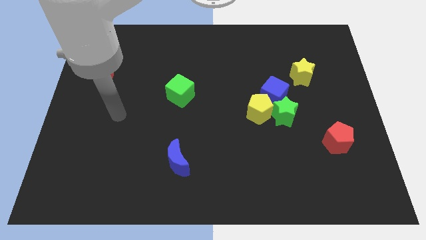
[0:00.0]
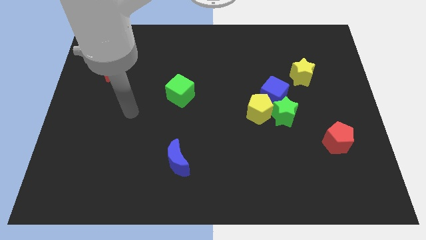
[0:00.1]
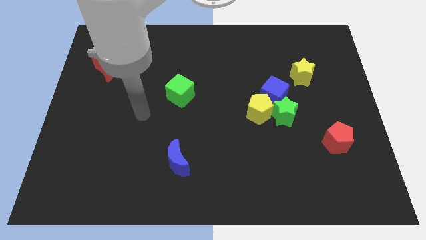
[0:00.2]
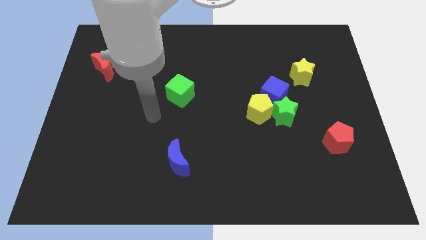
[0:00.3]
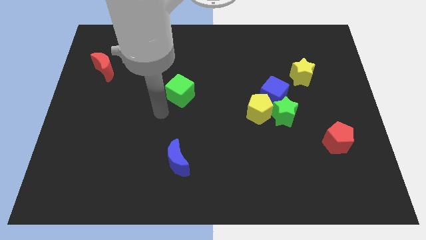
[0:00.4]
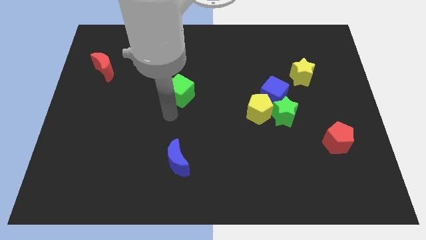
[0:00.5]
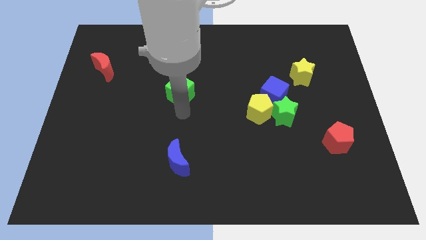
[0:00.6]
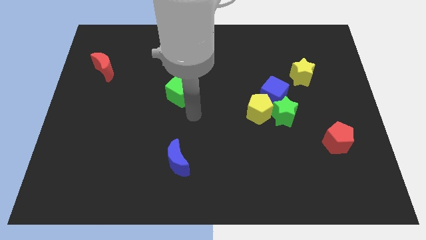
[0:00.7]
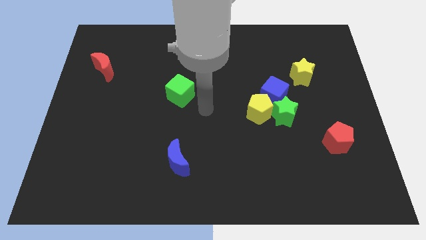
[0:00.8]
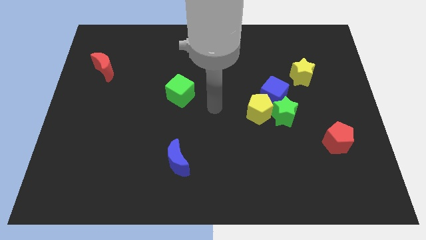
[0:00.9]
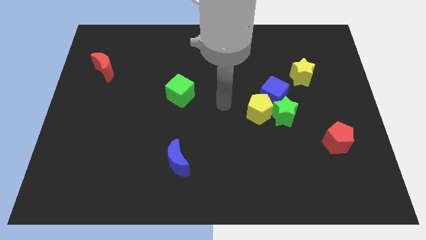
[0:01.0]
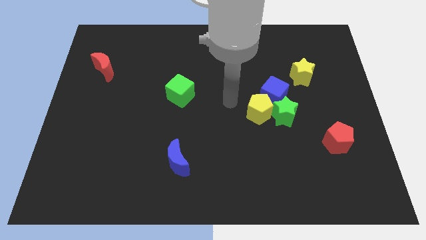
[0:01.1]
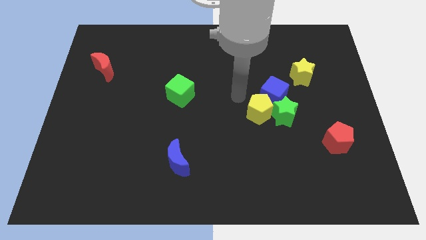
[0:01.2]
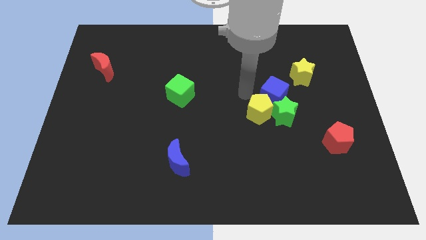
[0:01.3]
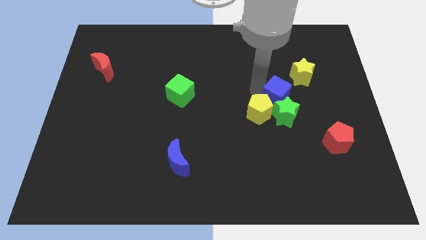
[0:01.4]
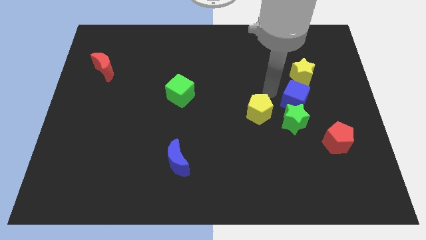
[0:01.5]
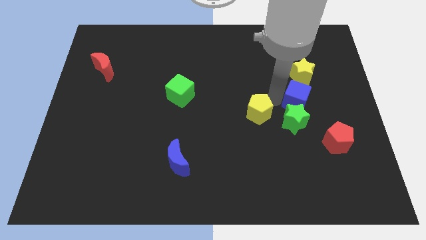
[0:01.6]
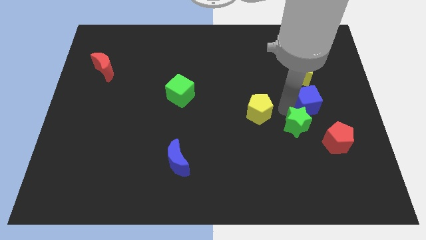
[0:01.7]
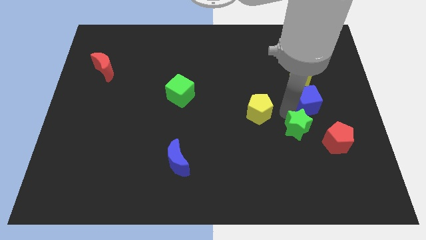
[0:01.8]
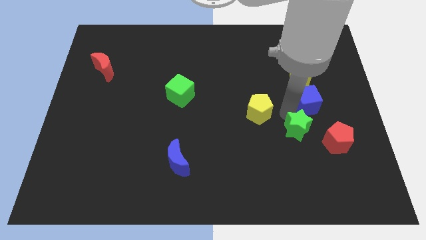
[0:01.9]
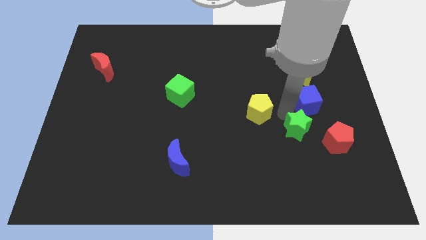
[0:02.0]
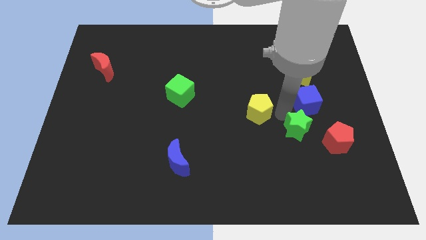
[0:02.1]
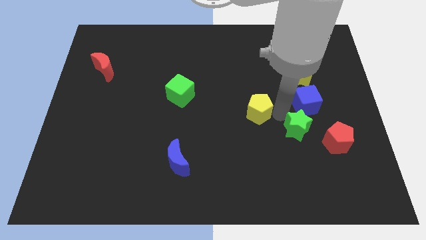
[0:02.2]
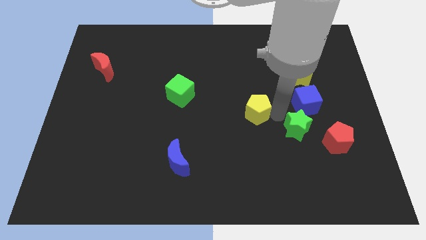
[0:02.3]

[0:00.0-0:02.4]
pull the yellow pentagon apart from the green star and blue cube

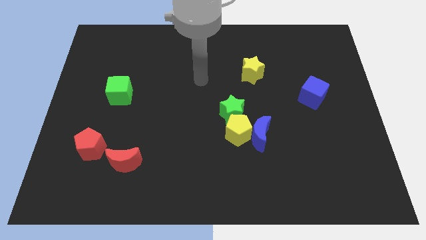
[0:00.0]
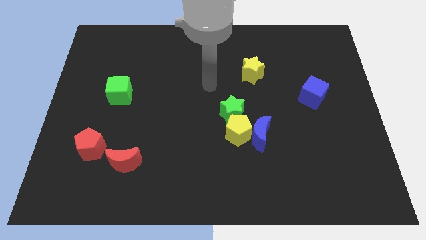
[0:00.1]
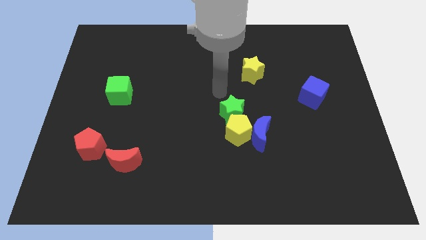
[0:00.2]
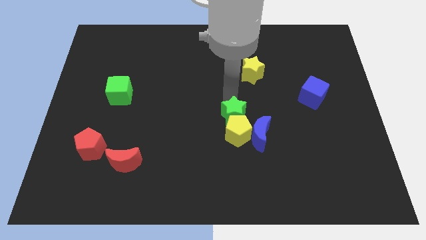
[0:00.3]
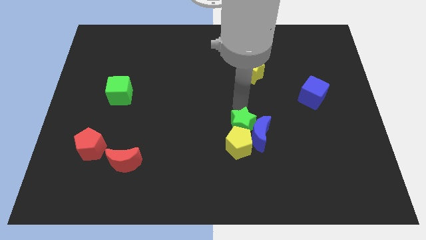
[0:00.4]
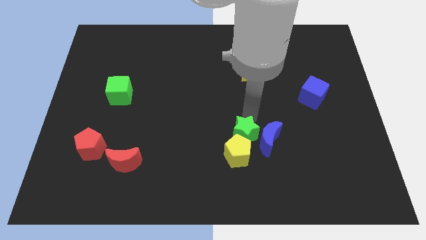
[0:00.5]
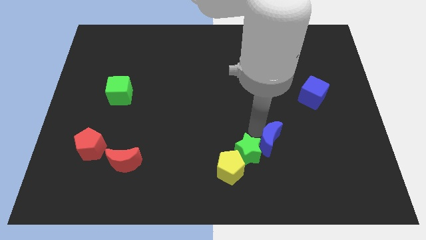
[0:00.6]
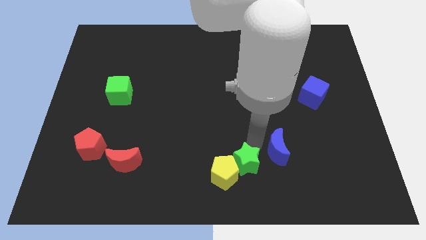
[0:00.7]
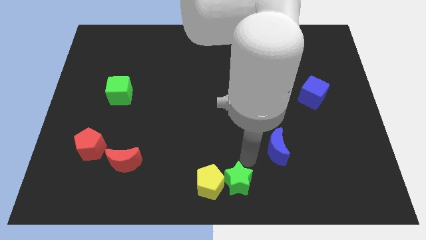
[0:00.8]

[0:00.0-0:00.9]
pull the yellow pentagon apart from the blue moon and green star

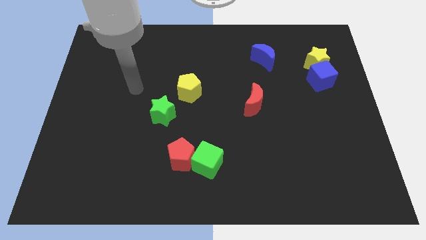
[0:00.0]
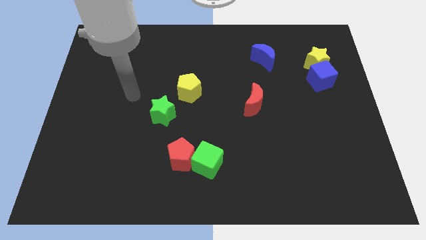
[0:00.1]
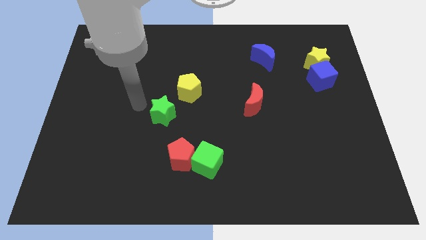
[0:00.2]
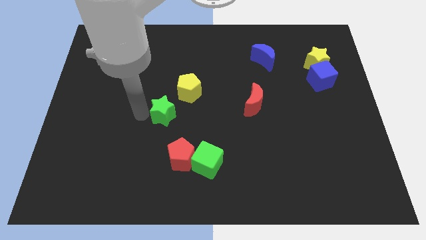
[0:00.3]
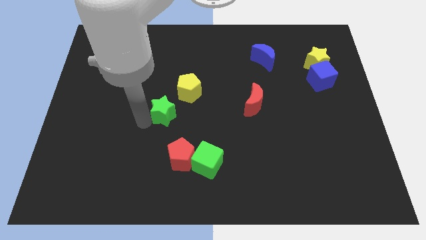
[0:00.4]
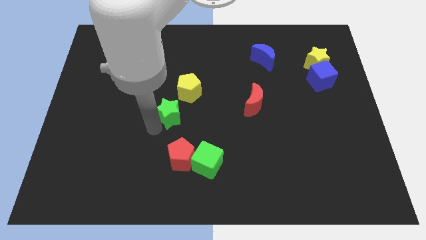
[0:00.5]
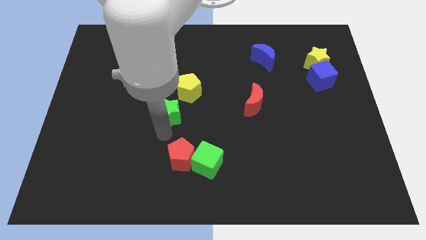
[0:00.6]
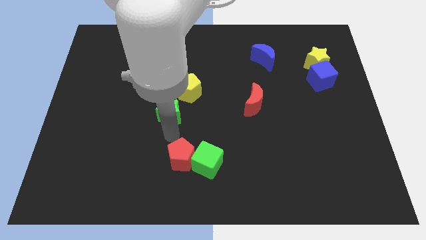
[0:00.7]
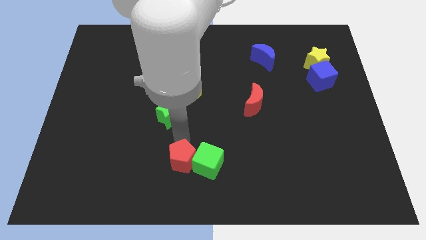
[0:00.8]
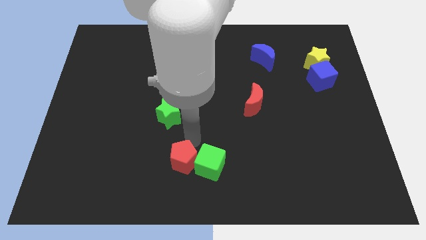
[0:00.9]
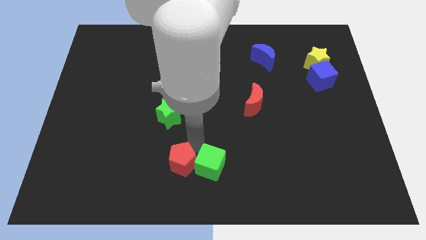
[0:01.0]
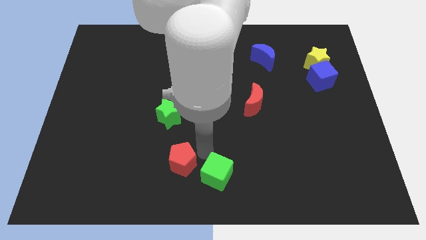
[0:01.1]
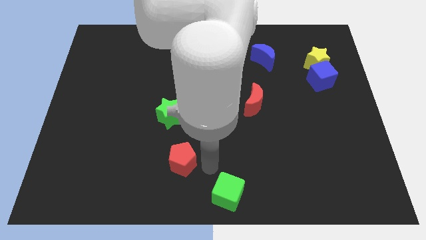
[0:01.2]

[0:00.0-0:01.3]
separate the red pentagon from the green cube

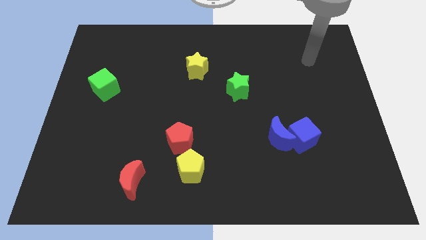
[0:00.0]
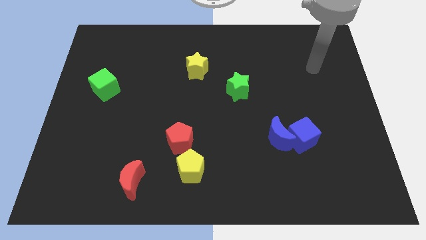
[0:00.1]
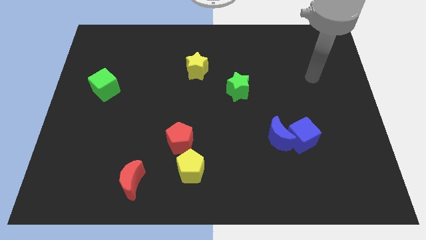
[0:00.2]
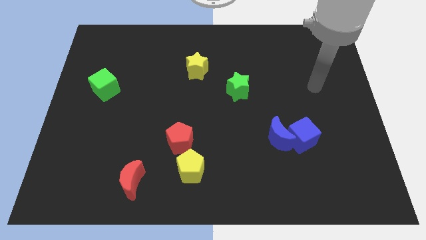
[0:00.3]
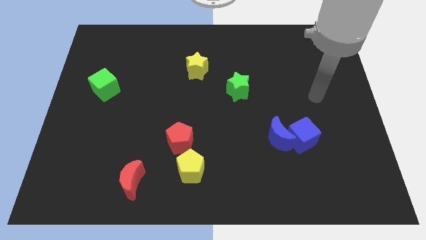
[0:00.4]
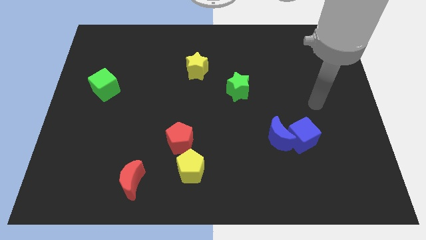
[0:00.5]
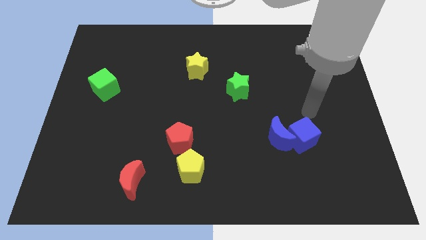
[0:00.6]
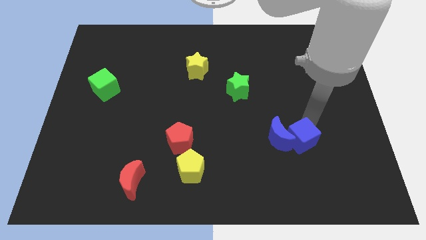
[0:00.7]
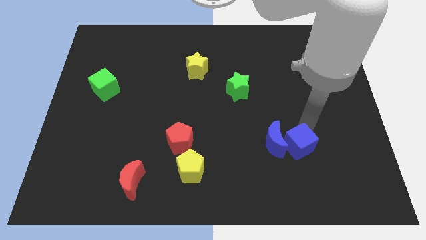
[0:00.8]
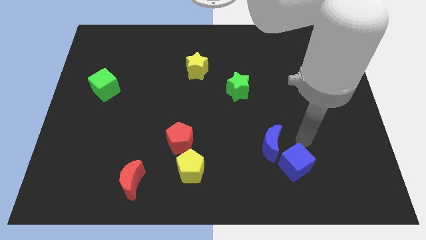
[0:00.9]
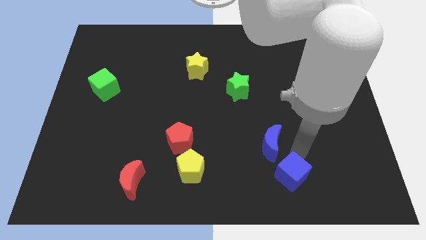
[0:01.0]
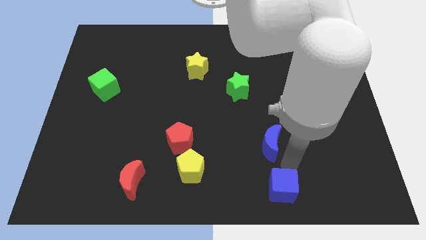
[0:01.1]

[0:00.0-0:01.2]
pull the blue moon apart from the blue cube

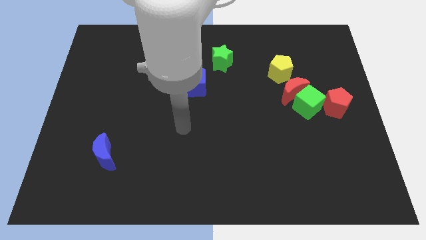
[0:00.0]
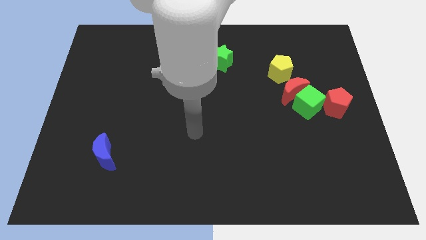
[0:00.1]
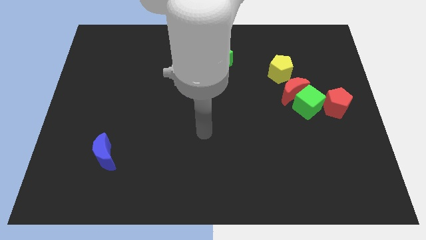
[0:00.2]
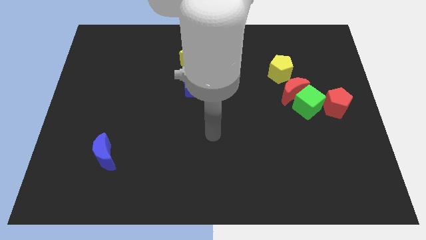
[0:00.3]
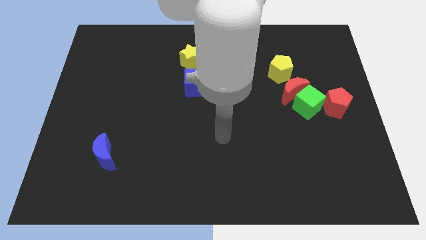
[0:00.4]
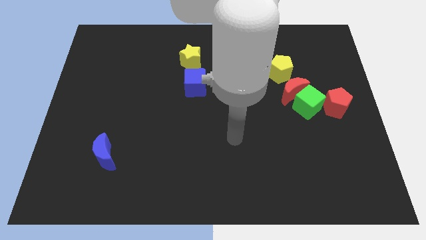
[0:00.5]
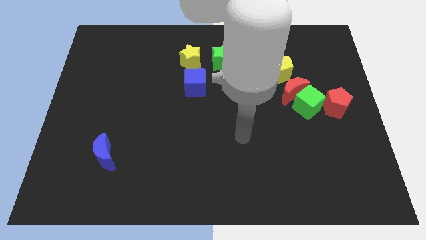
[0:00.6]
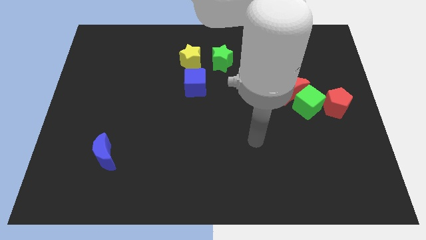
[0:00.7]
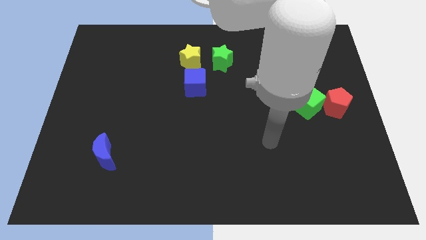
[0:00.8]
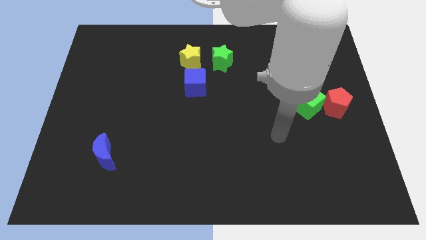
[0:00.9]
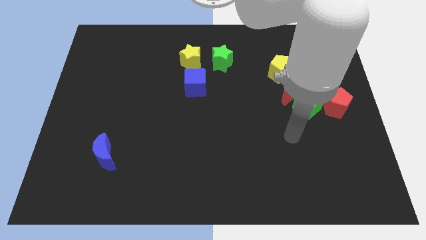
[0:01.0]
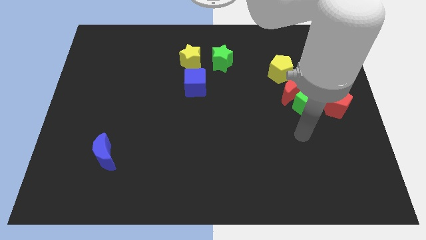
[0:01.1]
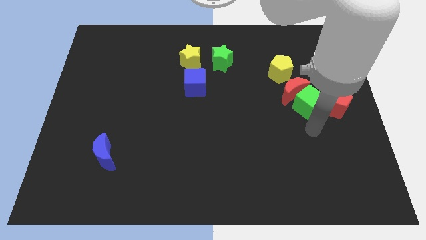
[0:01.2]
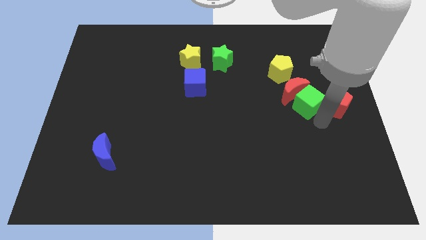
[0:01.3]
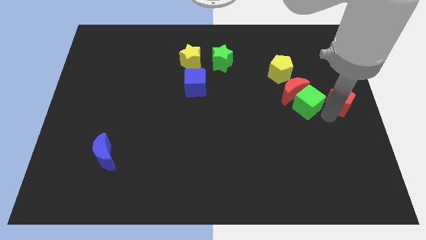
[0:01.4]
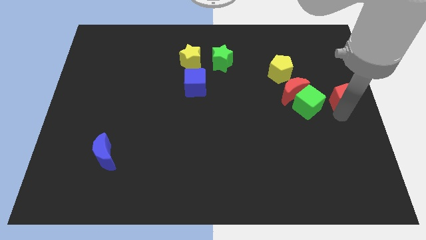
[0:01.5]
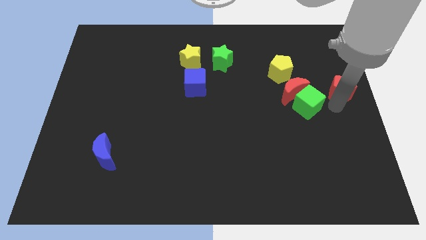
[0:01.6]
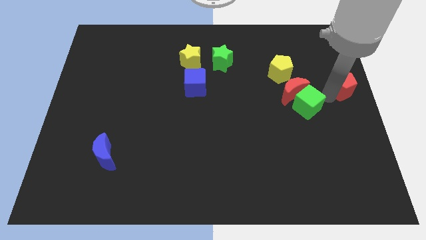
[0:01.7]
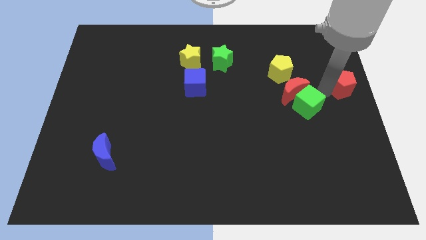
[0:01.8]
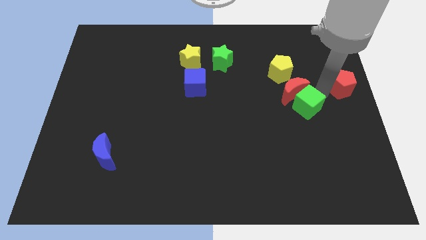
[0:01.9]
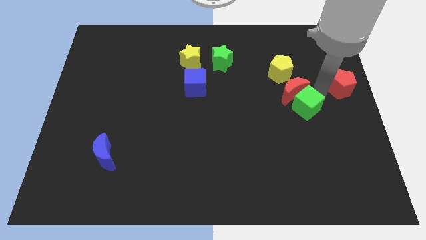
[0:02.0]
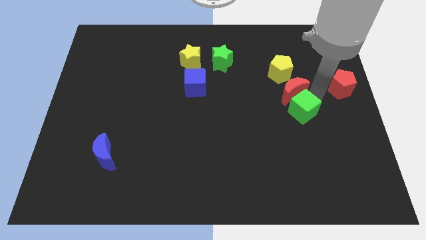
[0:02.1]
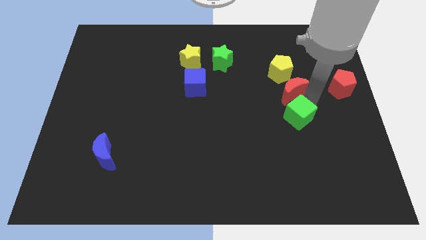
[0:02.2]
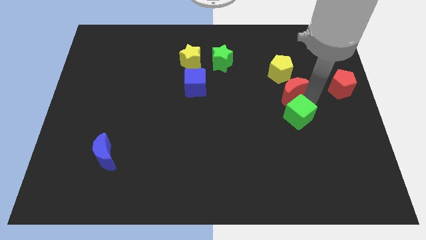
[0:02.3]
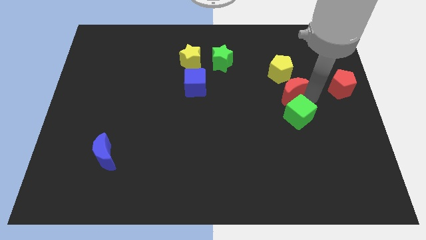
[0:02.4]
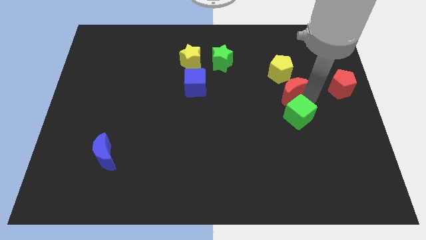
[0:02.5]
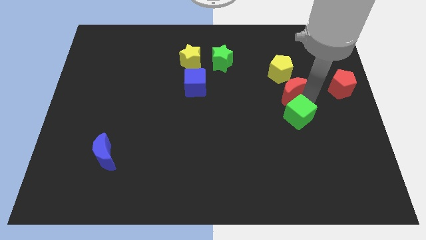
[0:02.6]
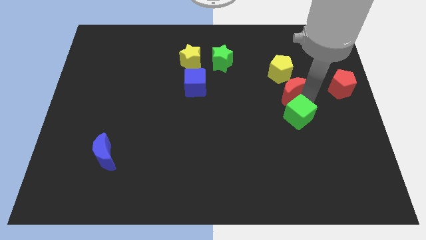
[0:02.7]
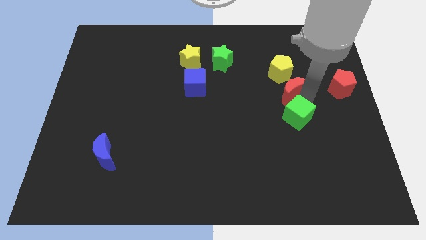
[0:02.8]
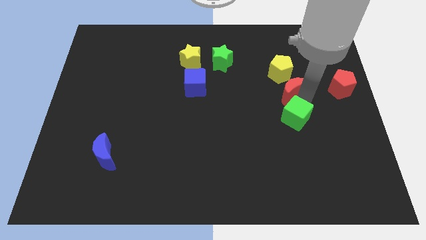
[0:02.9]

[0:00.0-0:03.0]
pull the green cube apart from the red moon and red pentagon

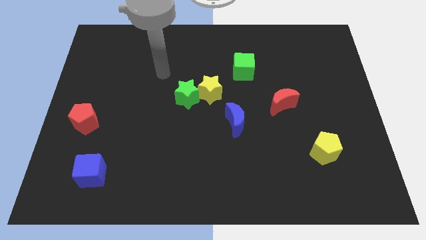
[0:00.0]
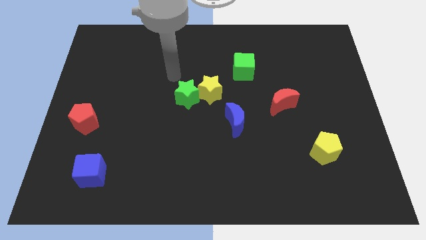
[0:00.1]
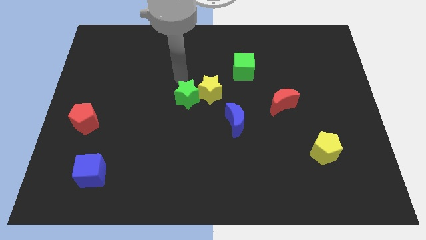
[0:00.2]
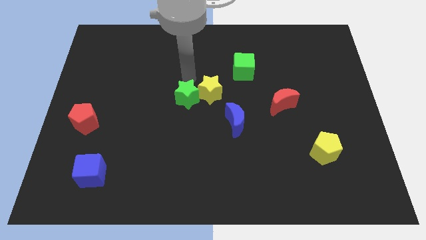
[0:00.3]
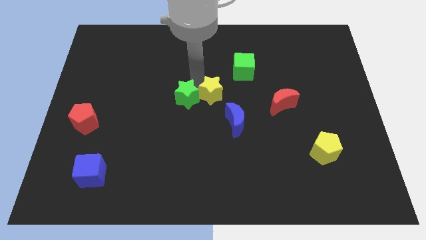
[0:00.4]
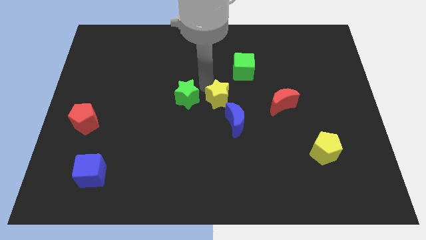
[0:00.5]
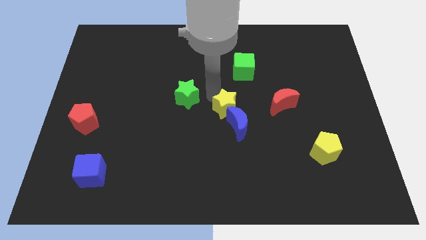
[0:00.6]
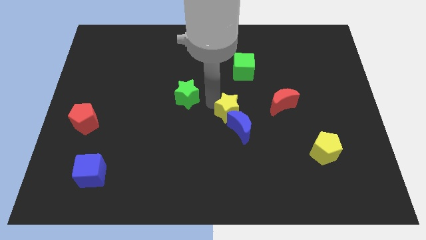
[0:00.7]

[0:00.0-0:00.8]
pull the green star apart from the yellow star
